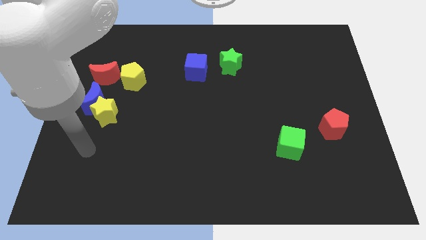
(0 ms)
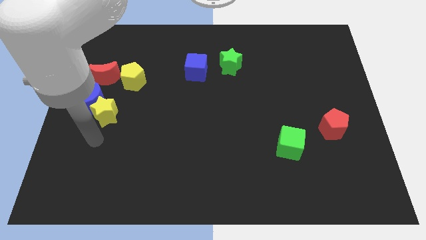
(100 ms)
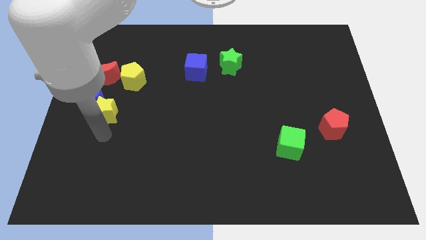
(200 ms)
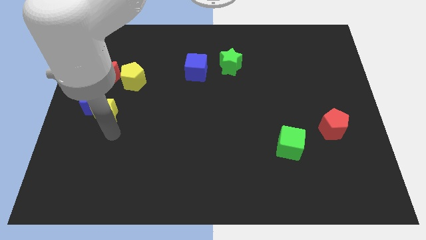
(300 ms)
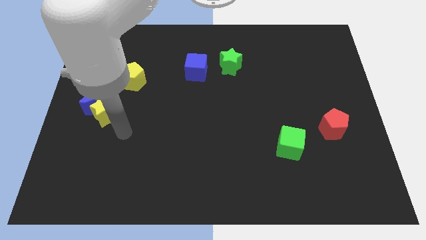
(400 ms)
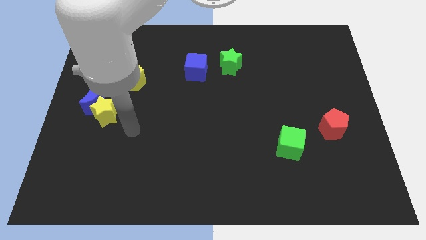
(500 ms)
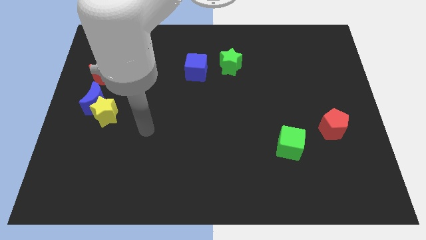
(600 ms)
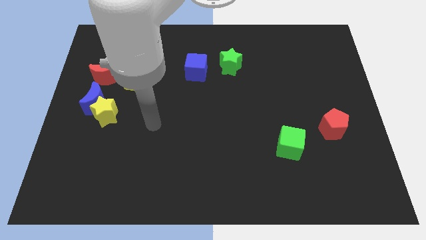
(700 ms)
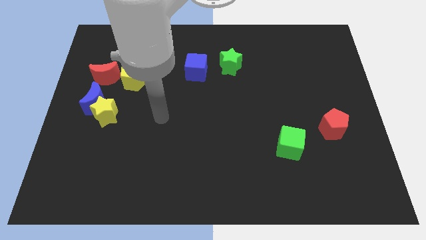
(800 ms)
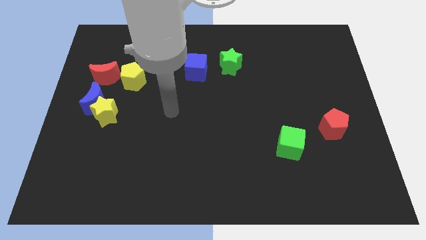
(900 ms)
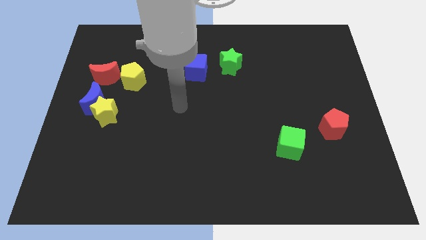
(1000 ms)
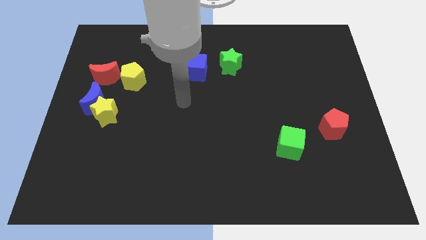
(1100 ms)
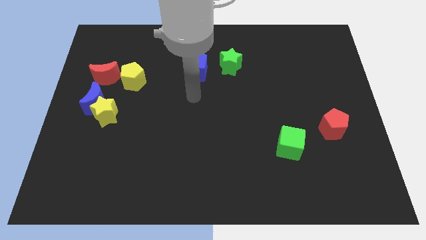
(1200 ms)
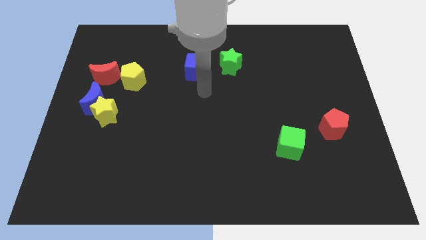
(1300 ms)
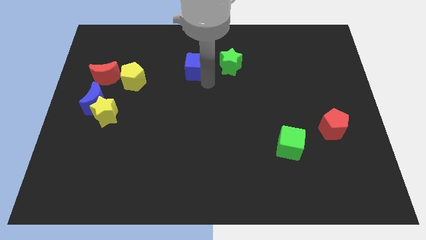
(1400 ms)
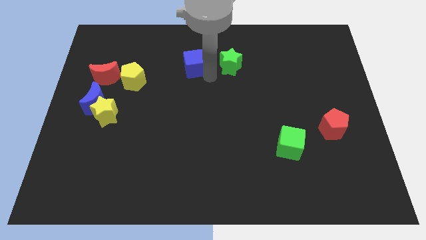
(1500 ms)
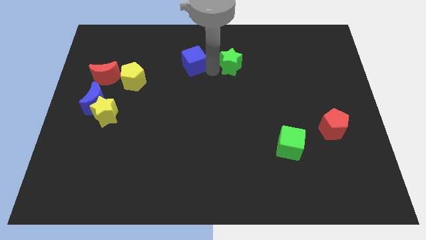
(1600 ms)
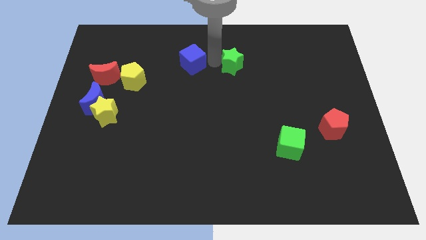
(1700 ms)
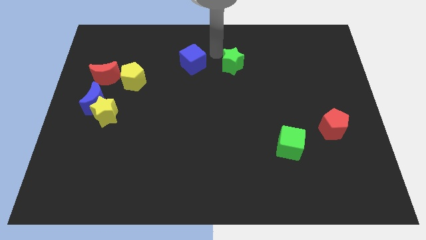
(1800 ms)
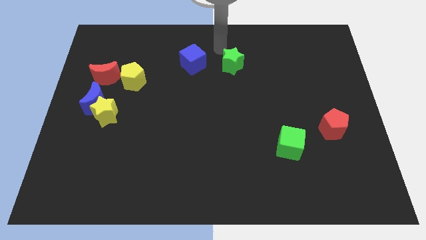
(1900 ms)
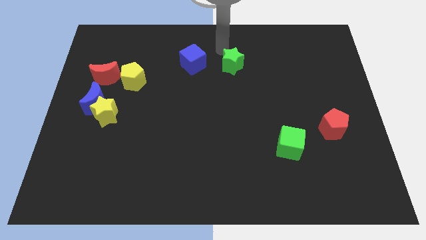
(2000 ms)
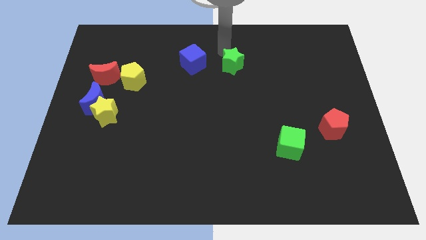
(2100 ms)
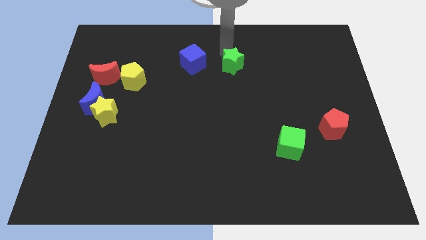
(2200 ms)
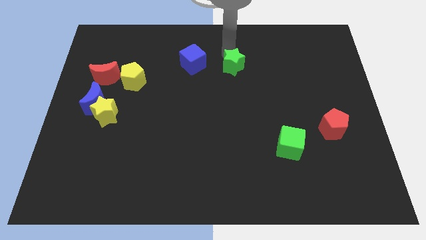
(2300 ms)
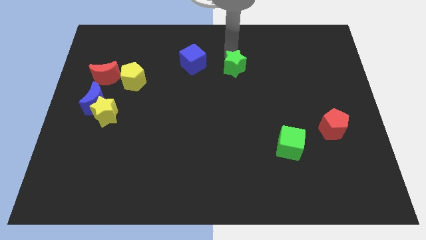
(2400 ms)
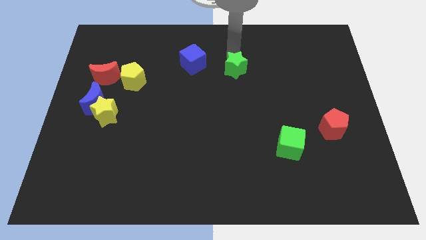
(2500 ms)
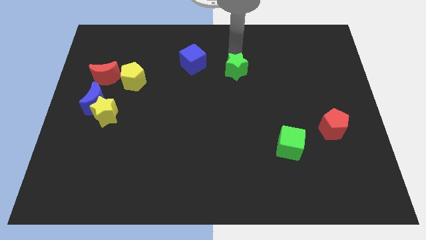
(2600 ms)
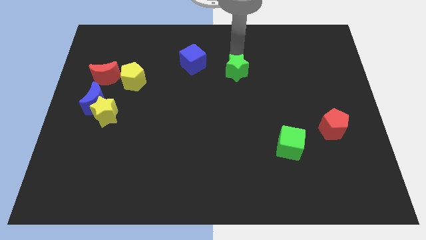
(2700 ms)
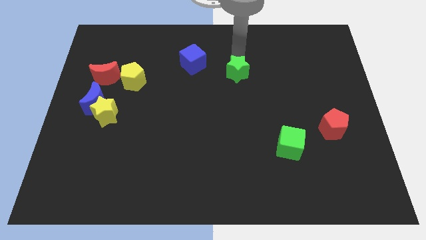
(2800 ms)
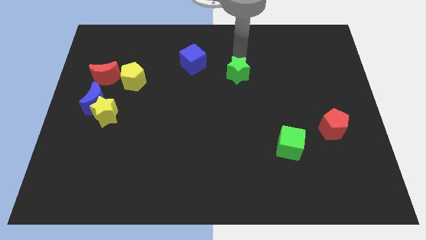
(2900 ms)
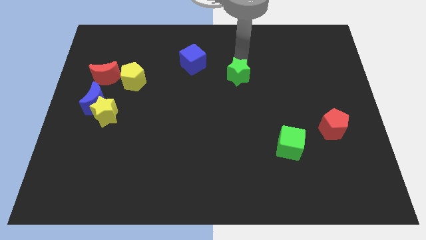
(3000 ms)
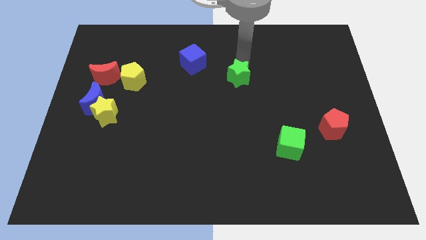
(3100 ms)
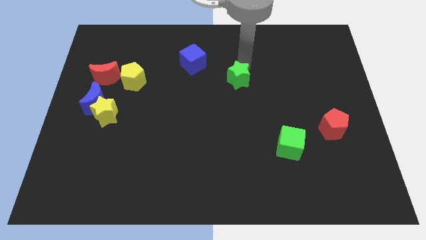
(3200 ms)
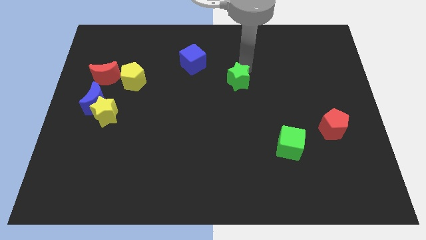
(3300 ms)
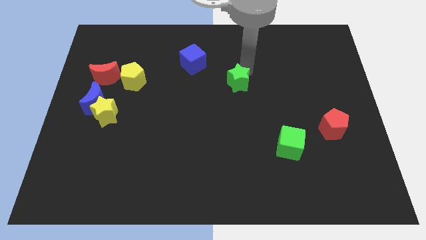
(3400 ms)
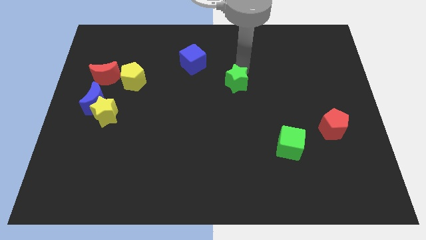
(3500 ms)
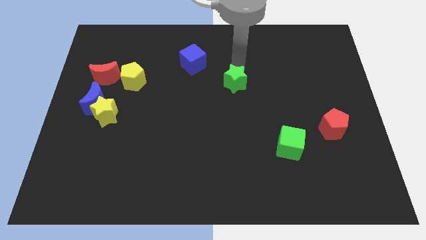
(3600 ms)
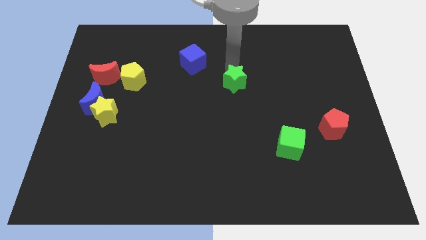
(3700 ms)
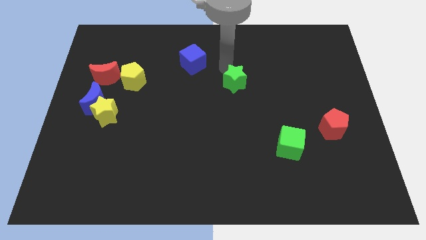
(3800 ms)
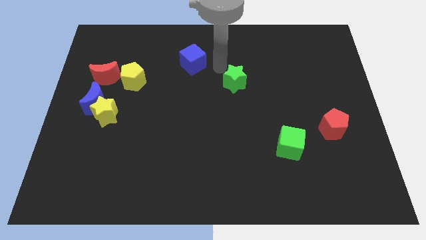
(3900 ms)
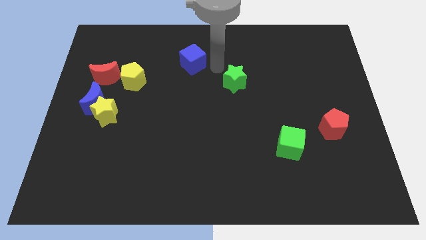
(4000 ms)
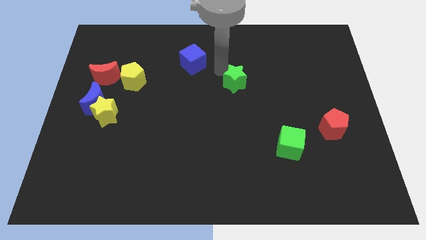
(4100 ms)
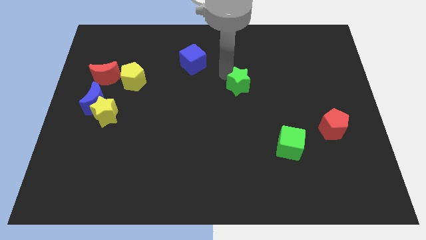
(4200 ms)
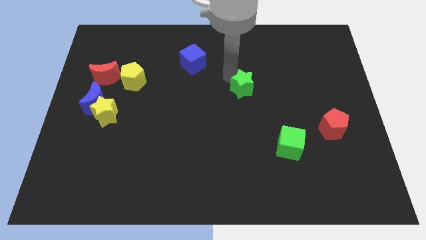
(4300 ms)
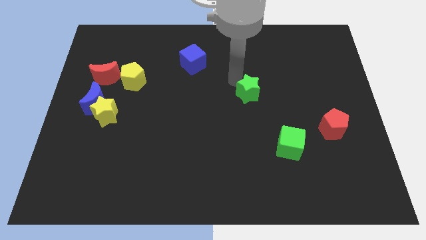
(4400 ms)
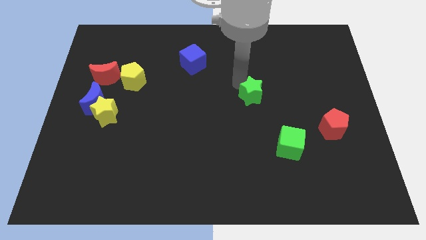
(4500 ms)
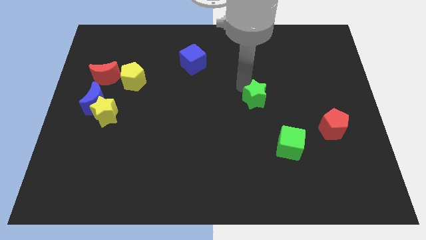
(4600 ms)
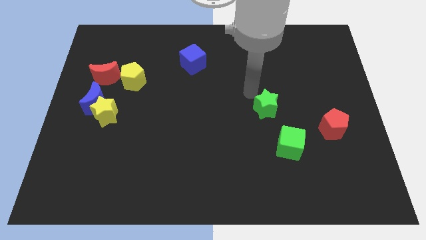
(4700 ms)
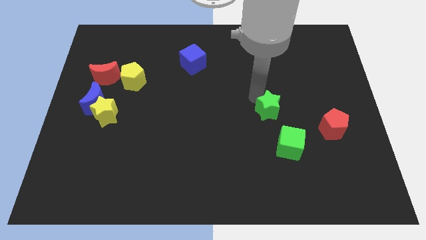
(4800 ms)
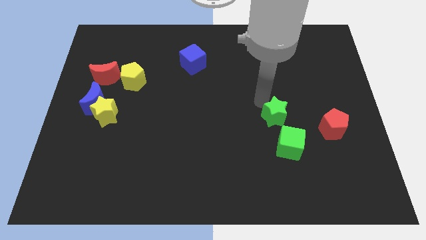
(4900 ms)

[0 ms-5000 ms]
slide the green star to the left side of the red pentagon

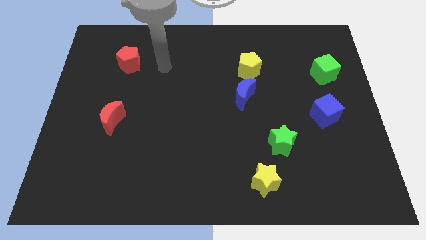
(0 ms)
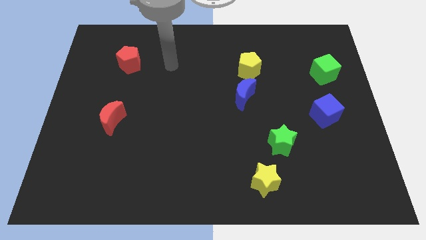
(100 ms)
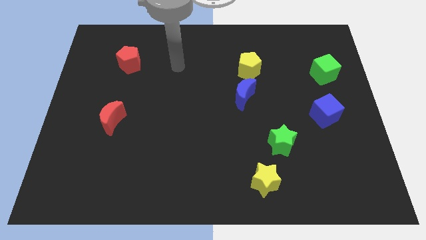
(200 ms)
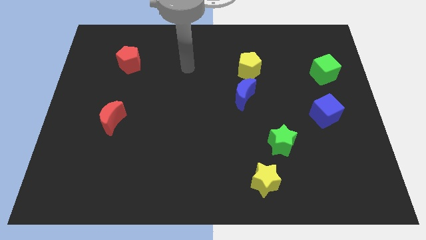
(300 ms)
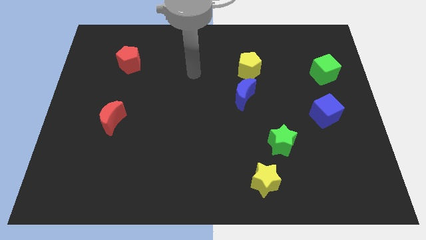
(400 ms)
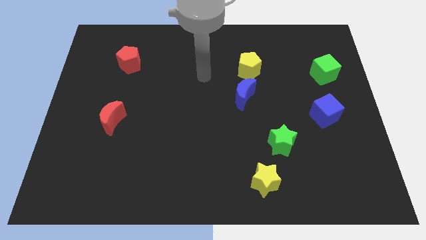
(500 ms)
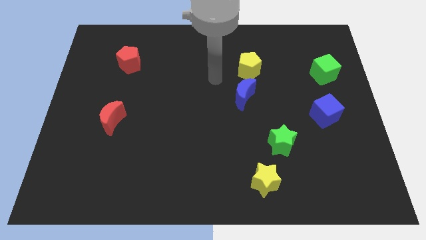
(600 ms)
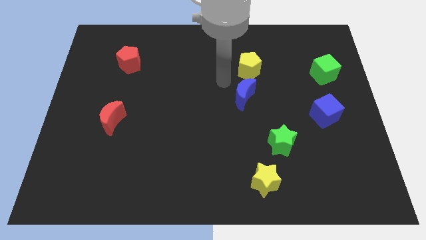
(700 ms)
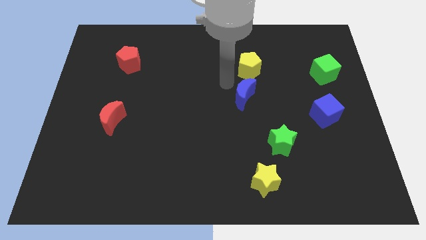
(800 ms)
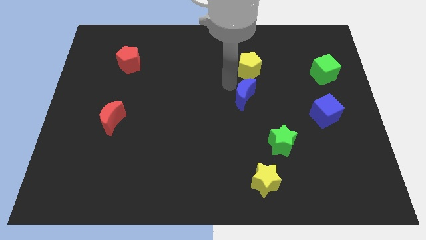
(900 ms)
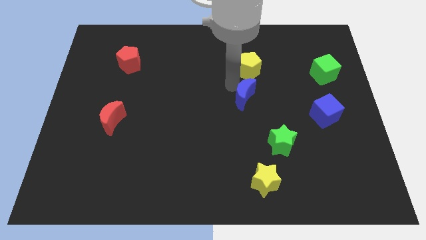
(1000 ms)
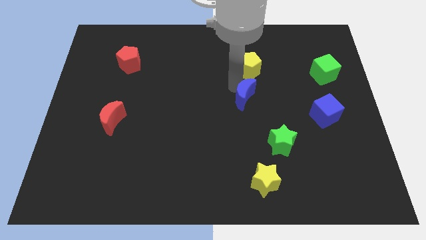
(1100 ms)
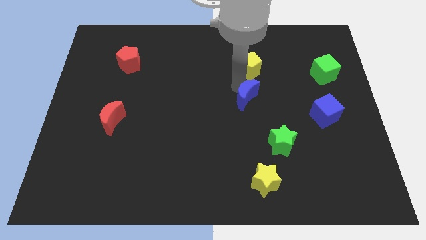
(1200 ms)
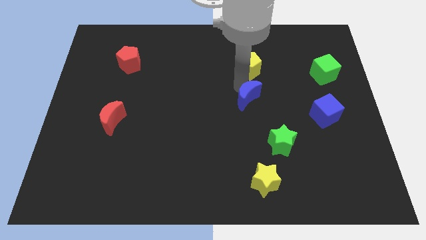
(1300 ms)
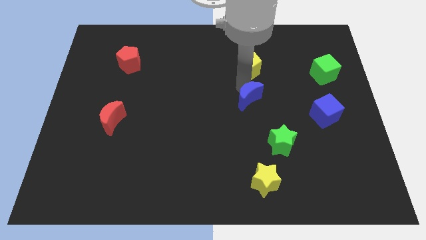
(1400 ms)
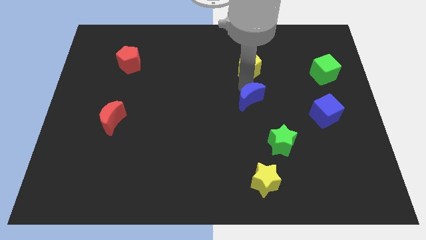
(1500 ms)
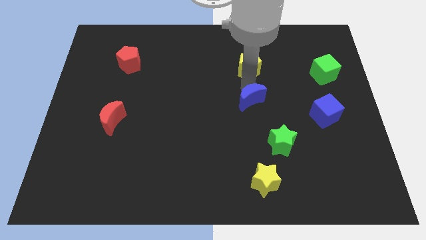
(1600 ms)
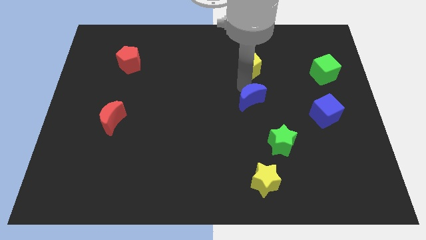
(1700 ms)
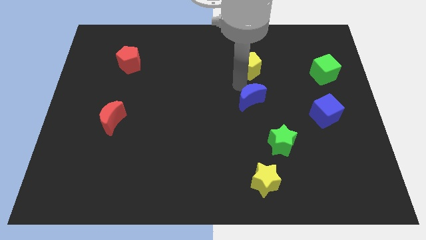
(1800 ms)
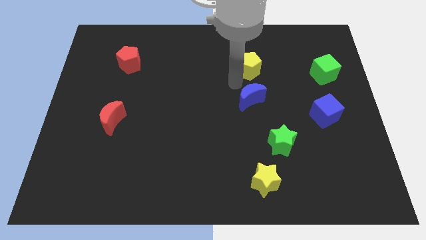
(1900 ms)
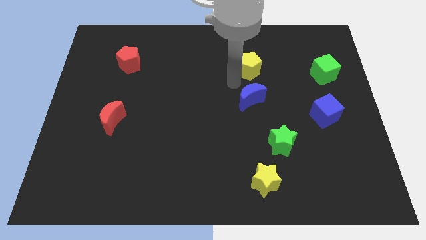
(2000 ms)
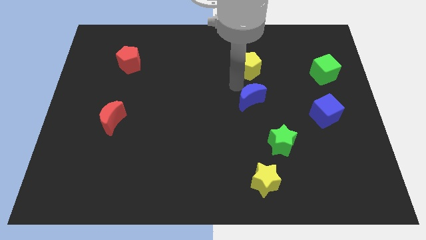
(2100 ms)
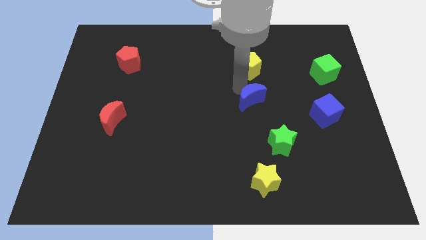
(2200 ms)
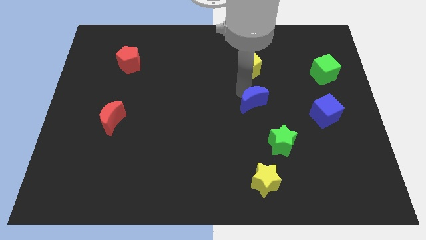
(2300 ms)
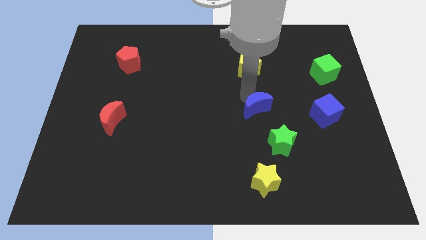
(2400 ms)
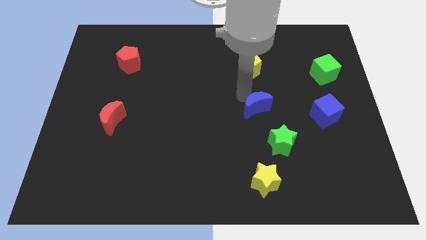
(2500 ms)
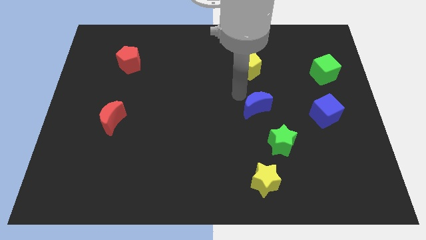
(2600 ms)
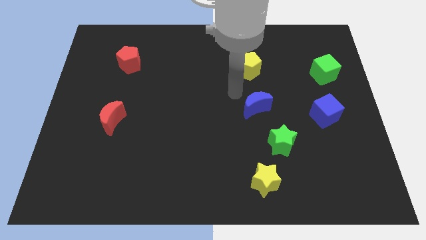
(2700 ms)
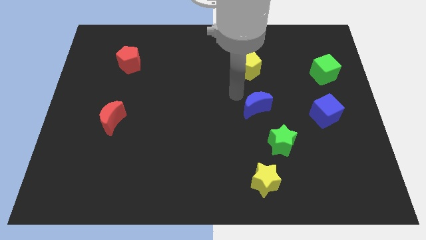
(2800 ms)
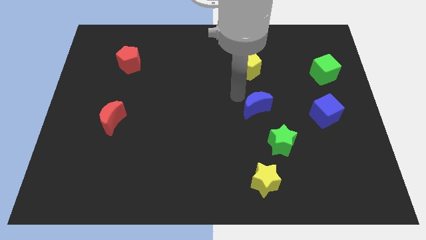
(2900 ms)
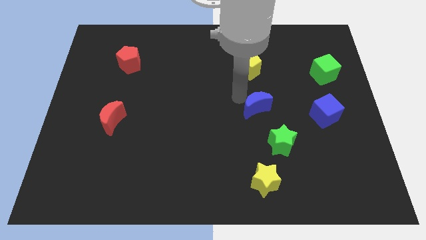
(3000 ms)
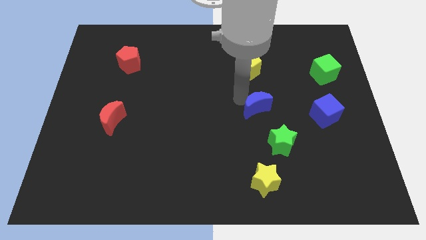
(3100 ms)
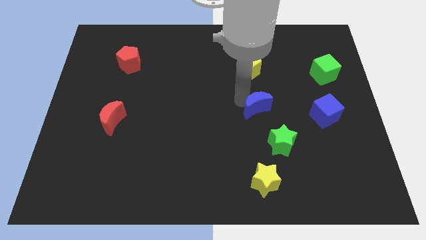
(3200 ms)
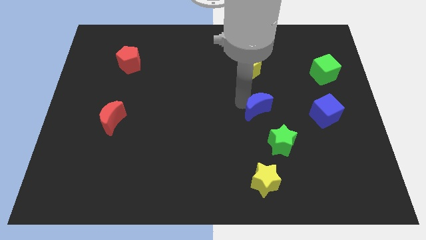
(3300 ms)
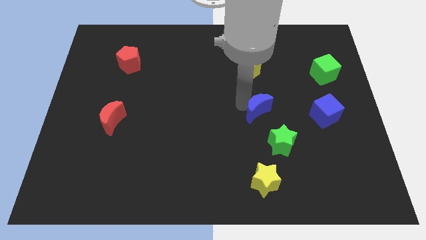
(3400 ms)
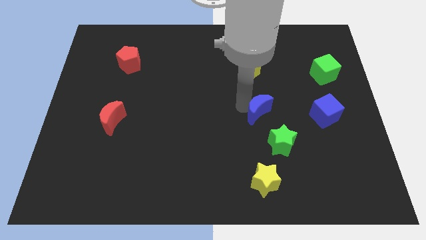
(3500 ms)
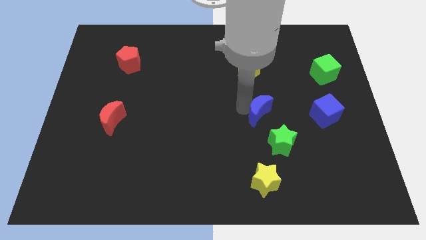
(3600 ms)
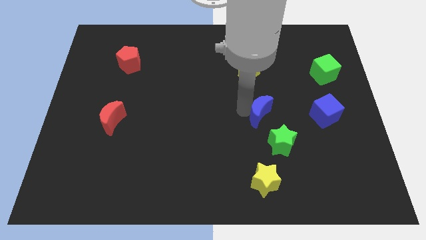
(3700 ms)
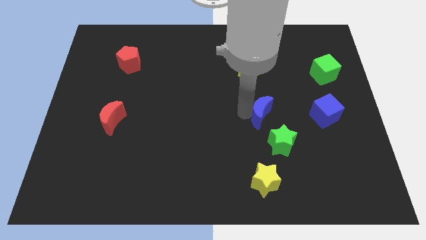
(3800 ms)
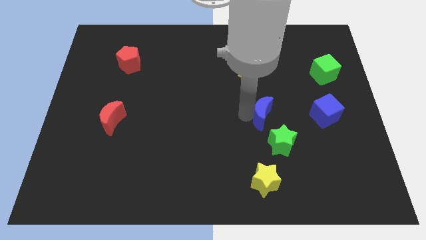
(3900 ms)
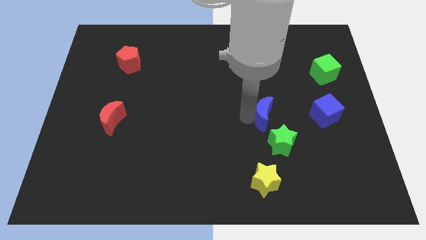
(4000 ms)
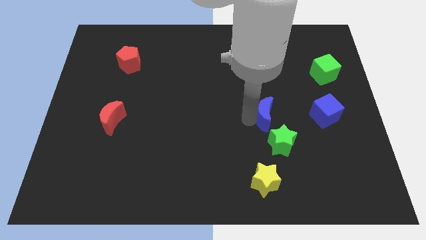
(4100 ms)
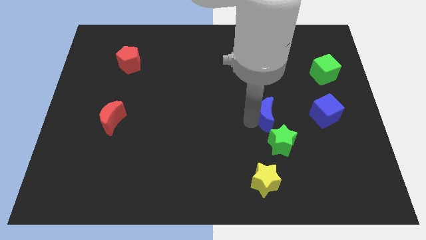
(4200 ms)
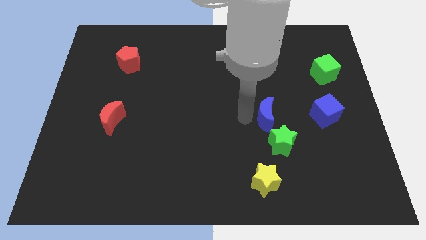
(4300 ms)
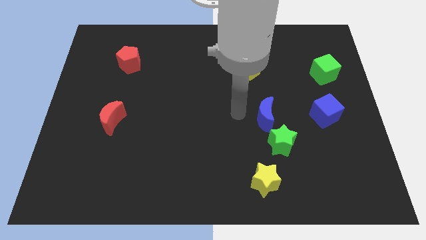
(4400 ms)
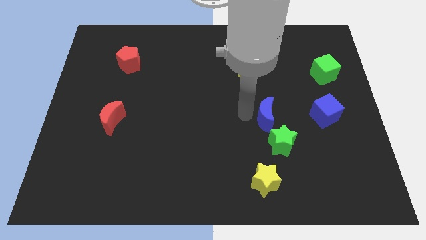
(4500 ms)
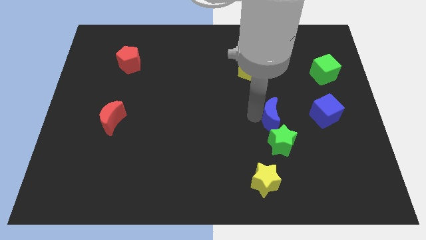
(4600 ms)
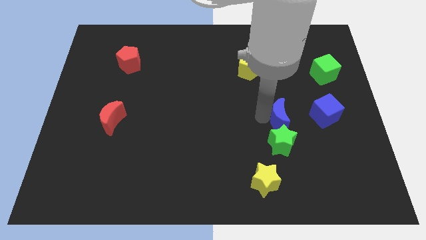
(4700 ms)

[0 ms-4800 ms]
push the blue moon to the top right of the green star
